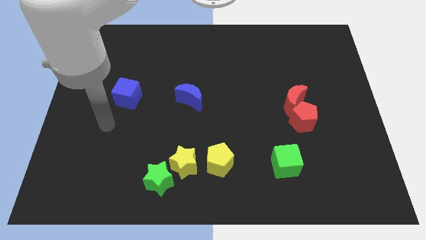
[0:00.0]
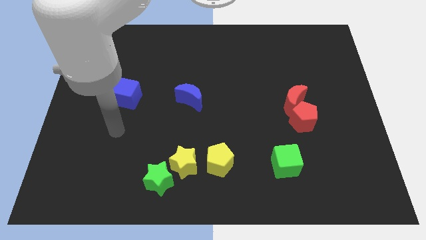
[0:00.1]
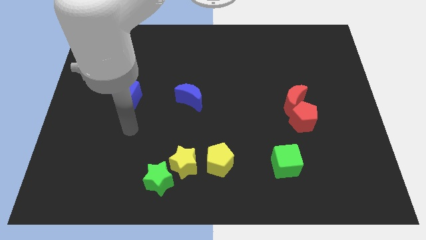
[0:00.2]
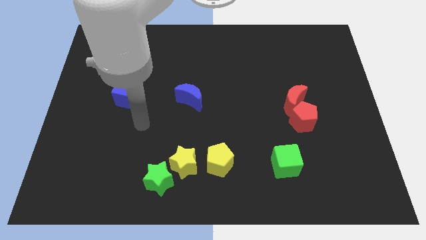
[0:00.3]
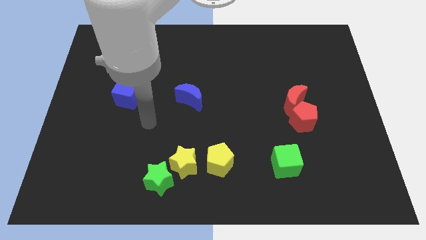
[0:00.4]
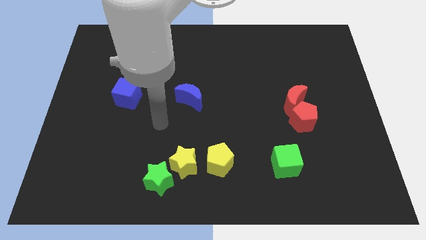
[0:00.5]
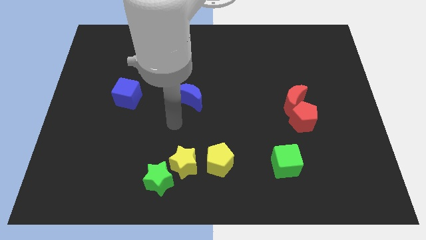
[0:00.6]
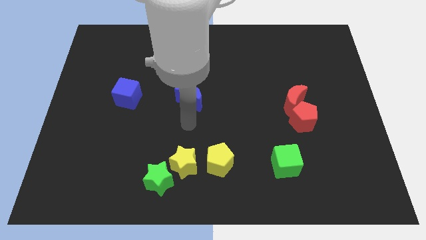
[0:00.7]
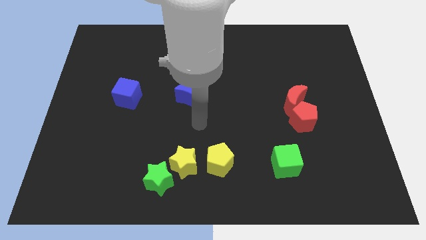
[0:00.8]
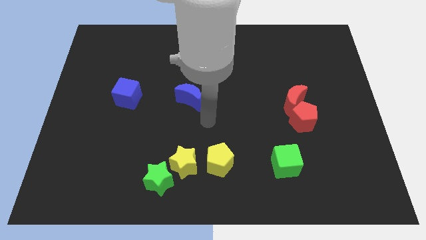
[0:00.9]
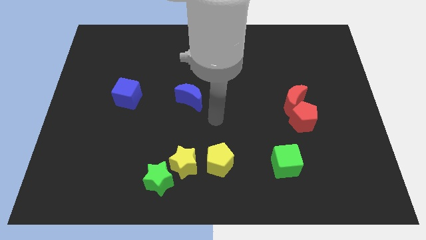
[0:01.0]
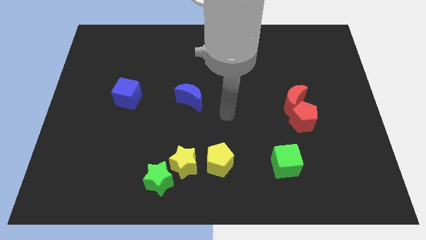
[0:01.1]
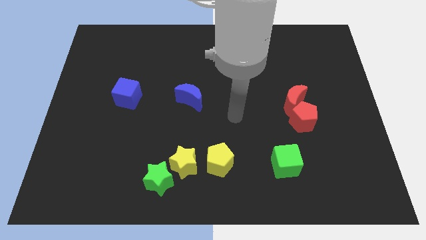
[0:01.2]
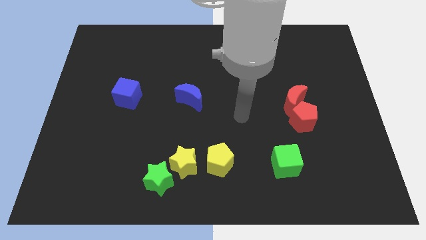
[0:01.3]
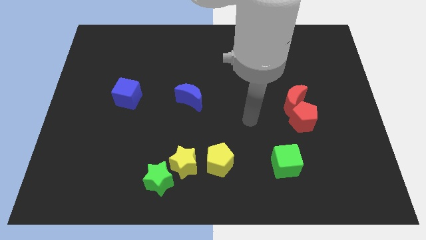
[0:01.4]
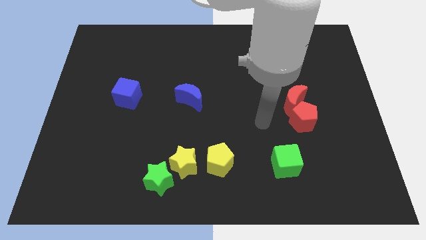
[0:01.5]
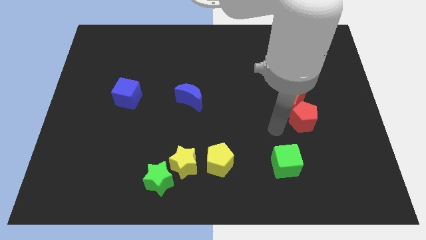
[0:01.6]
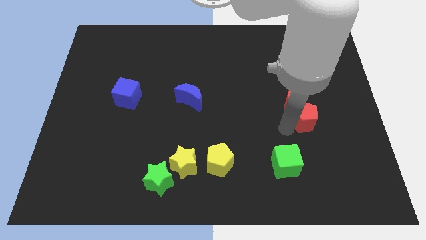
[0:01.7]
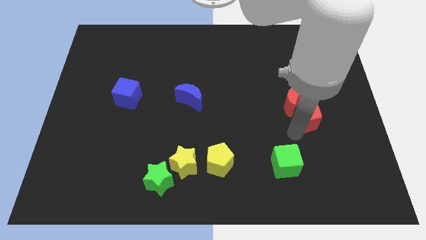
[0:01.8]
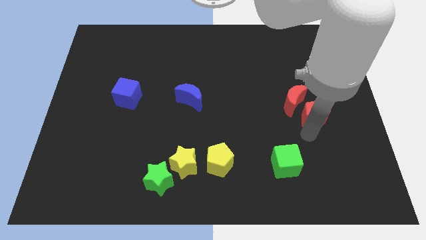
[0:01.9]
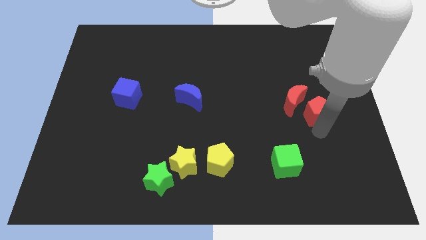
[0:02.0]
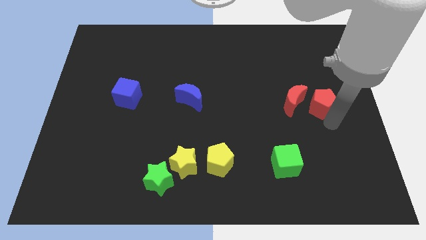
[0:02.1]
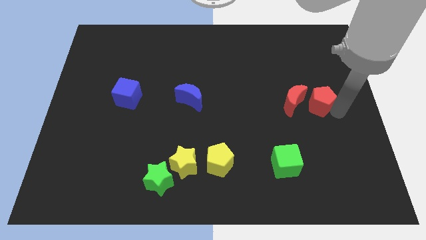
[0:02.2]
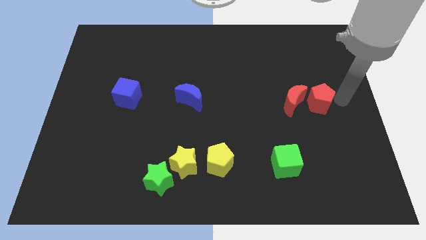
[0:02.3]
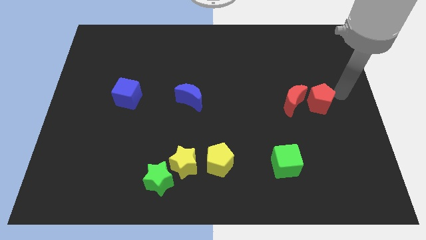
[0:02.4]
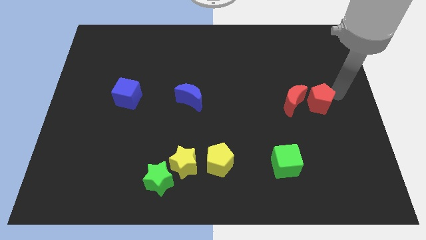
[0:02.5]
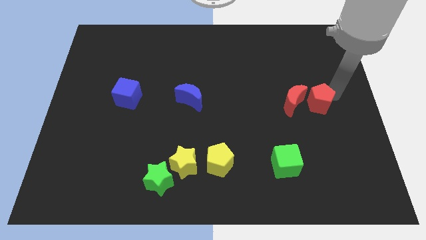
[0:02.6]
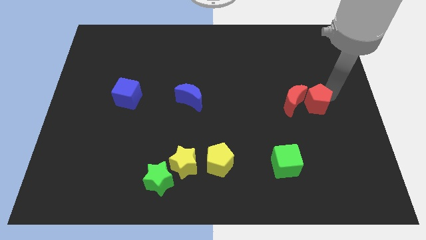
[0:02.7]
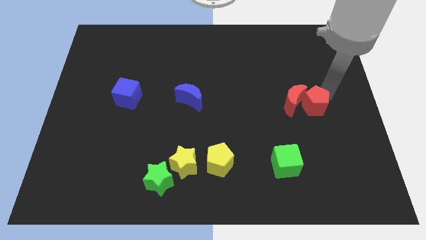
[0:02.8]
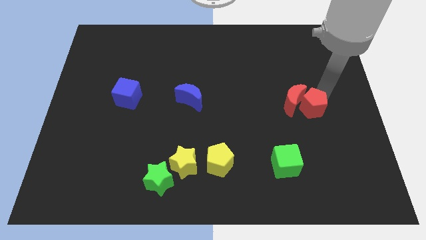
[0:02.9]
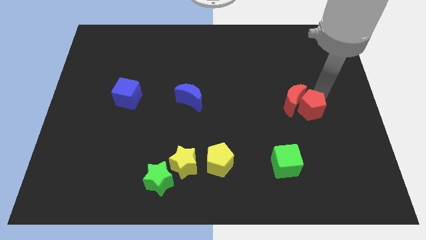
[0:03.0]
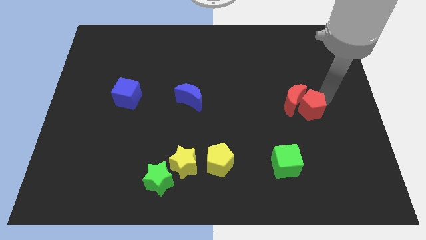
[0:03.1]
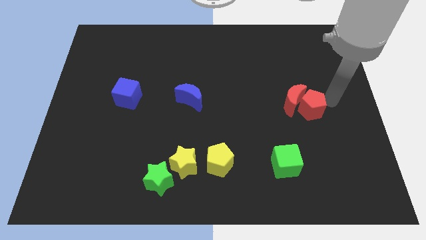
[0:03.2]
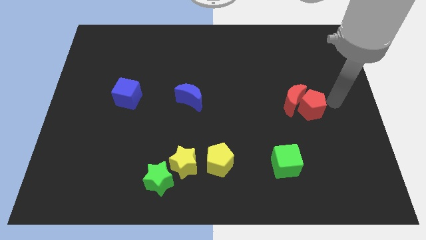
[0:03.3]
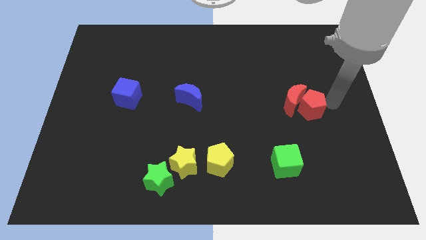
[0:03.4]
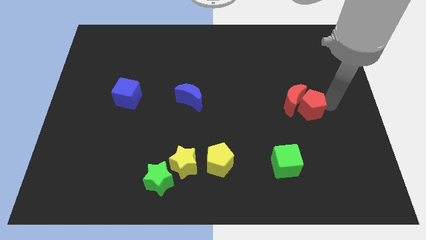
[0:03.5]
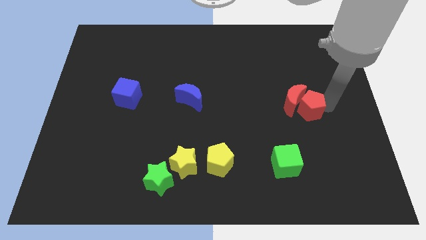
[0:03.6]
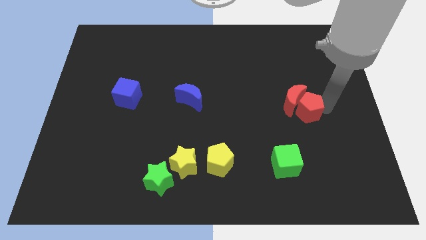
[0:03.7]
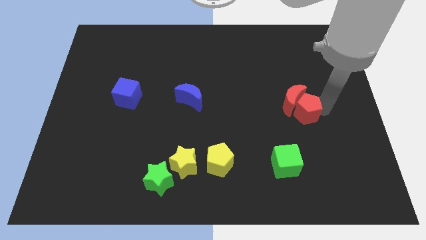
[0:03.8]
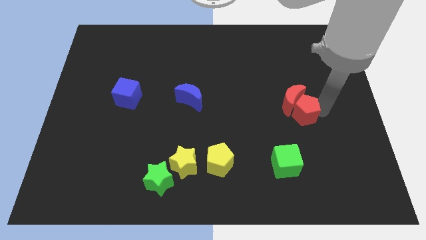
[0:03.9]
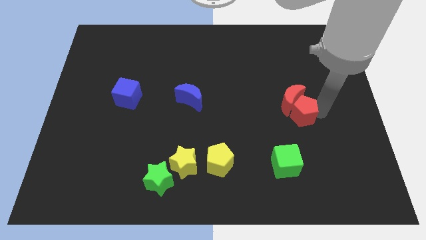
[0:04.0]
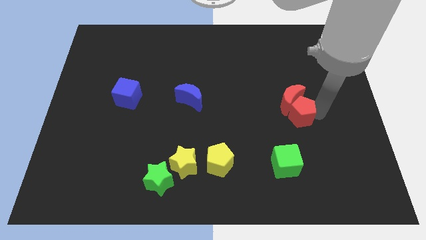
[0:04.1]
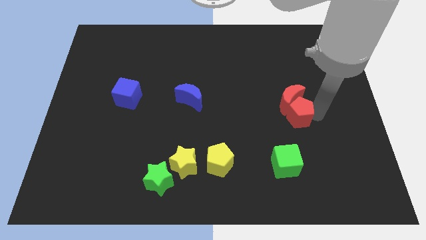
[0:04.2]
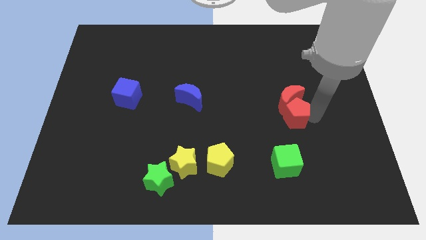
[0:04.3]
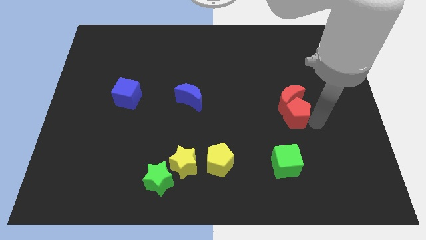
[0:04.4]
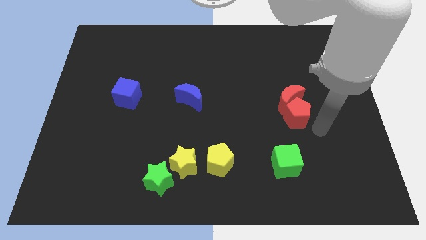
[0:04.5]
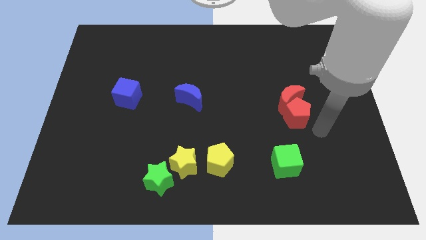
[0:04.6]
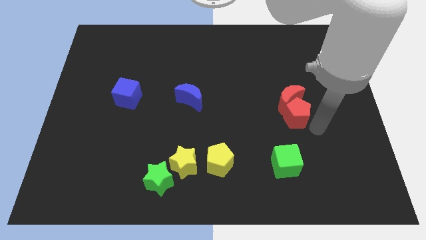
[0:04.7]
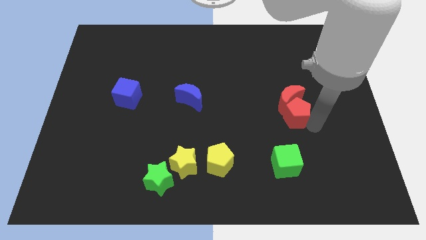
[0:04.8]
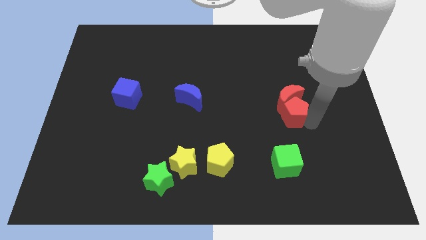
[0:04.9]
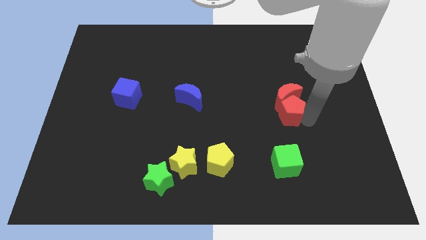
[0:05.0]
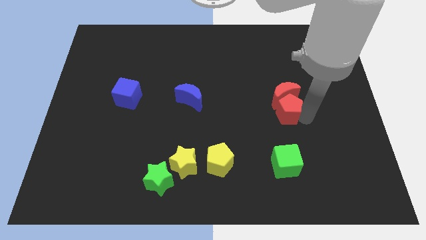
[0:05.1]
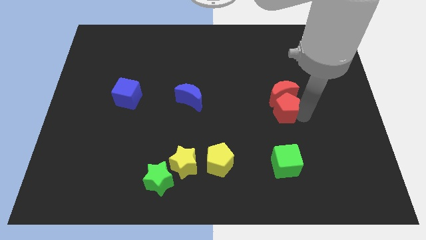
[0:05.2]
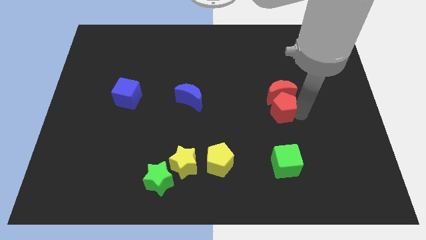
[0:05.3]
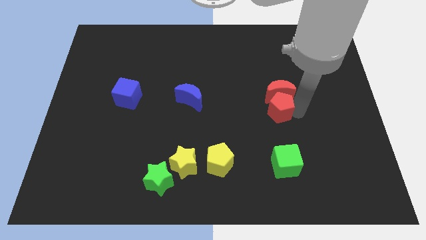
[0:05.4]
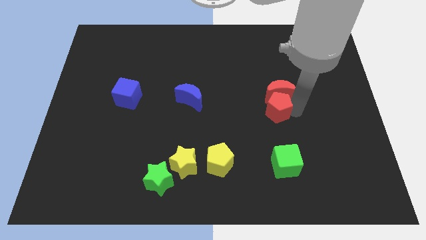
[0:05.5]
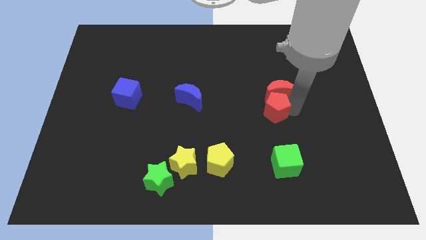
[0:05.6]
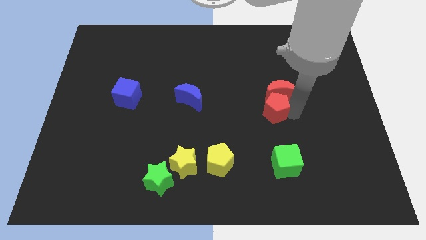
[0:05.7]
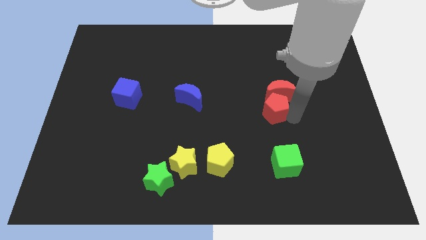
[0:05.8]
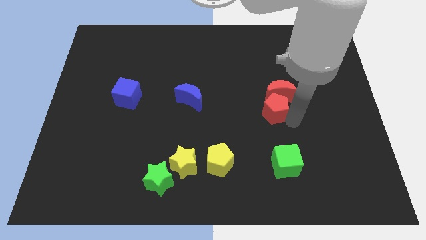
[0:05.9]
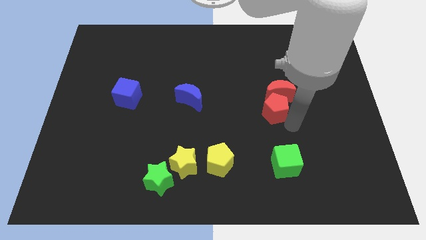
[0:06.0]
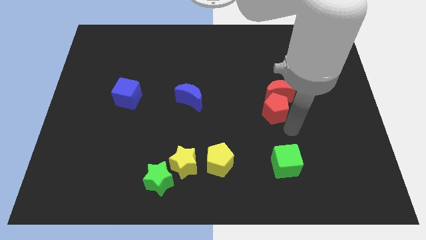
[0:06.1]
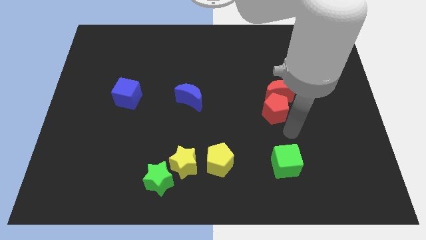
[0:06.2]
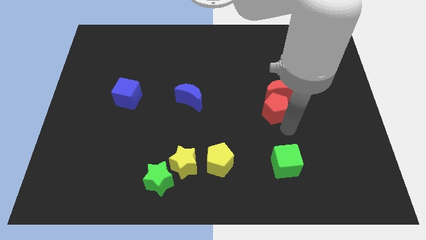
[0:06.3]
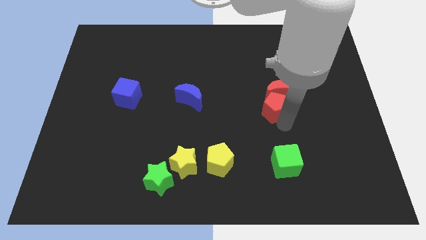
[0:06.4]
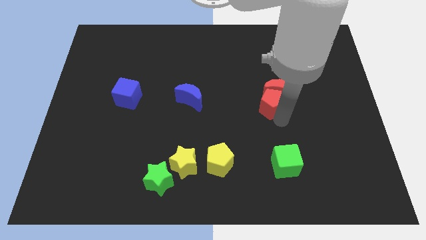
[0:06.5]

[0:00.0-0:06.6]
push the red pentagon a little bit diagonally upwards and left

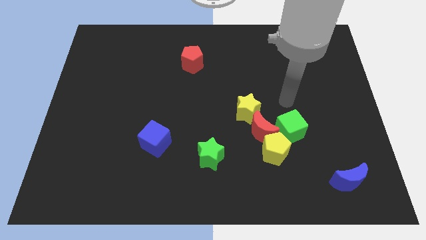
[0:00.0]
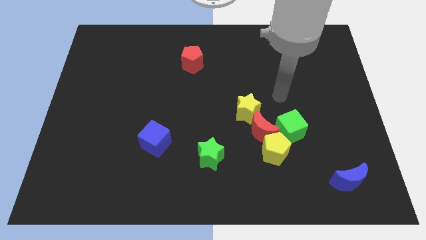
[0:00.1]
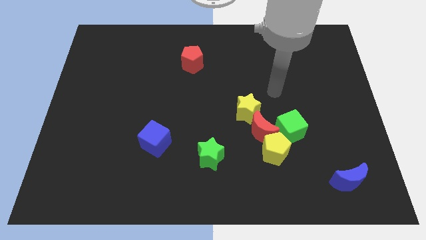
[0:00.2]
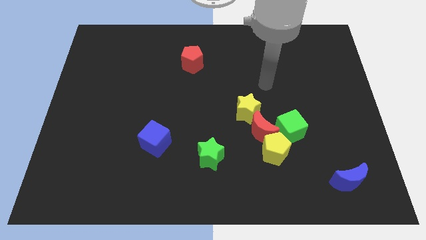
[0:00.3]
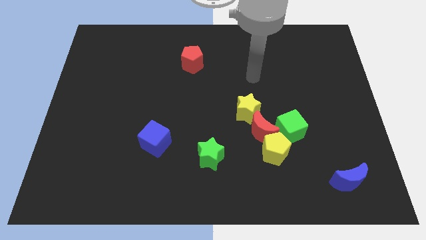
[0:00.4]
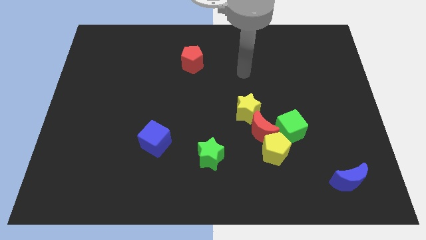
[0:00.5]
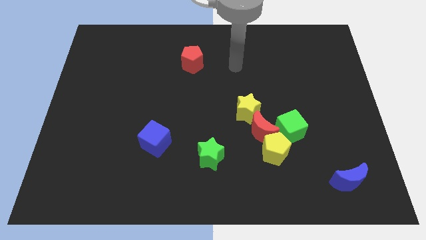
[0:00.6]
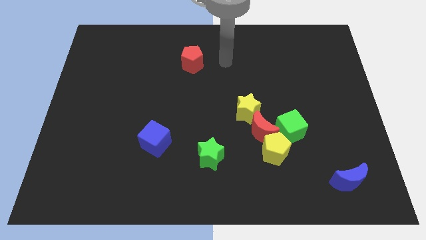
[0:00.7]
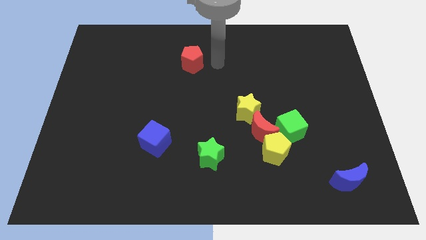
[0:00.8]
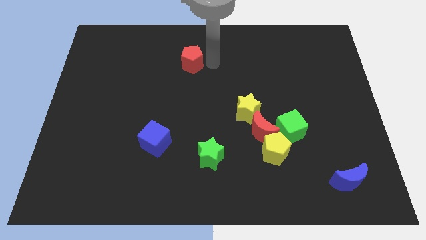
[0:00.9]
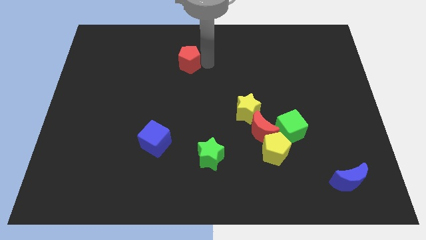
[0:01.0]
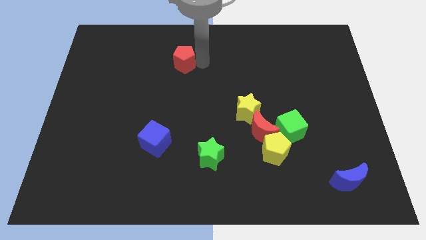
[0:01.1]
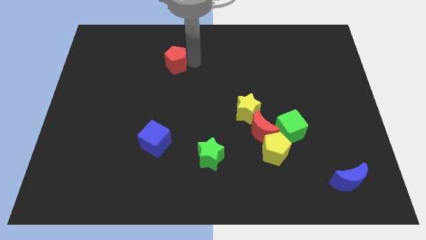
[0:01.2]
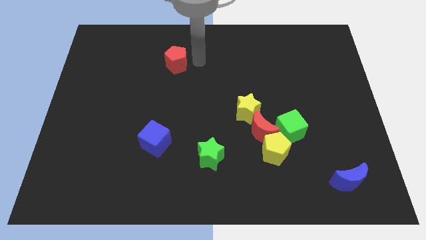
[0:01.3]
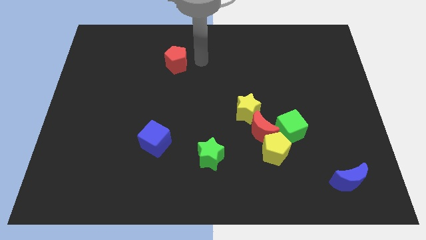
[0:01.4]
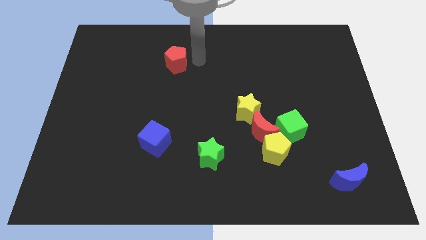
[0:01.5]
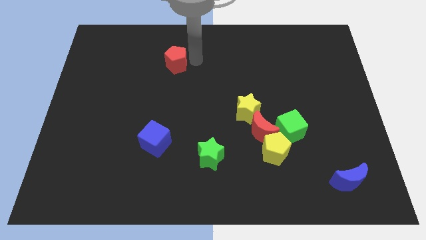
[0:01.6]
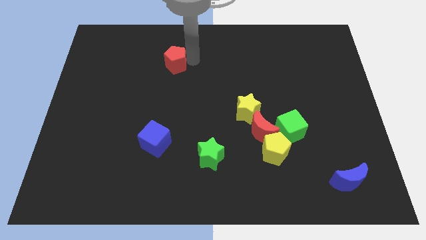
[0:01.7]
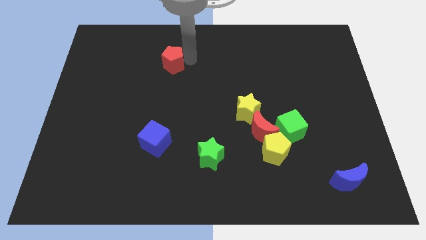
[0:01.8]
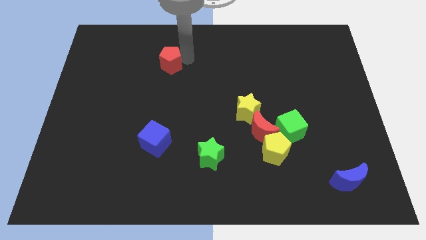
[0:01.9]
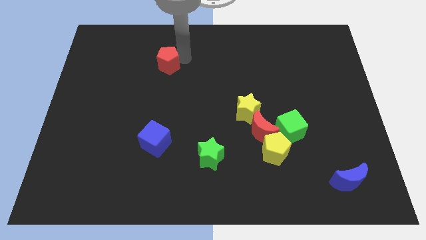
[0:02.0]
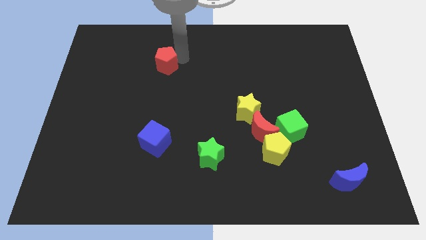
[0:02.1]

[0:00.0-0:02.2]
move the red pentagon a bit left
